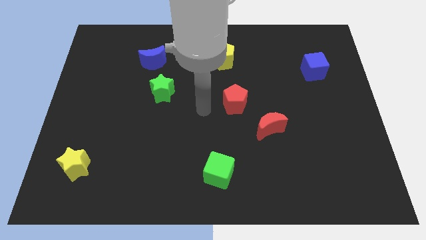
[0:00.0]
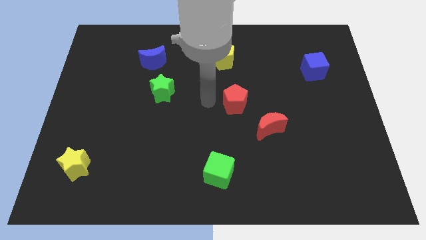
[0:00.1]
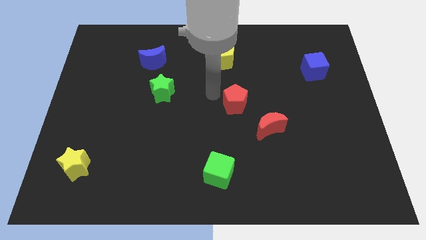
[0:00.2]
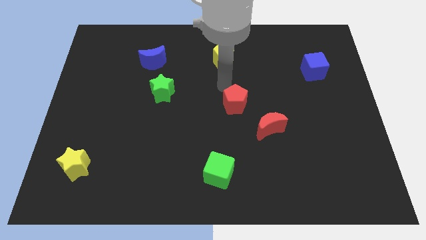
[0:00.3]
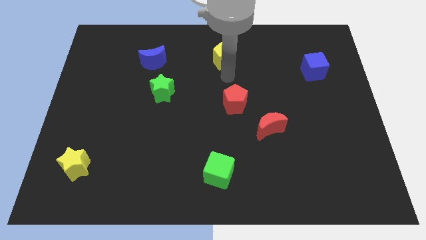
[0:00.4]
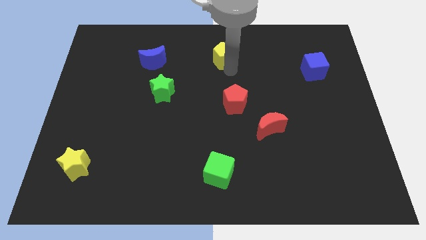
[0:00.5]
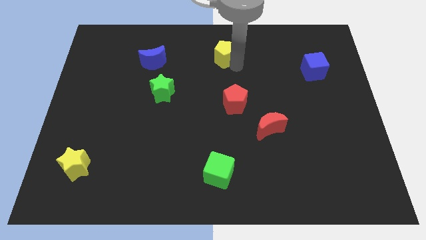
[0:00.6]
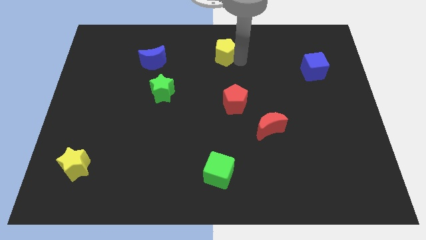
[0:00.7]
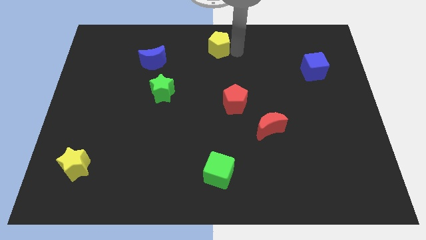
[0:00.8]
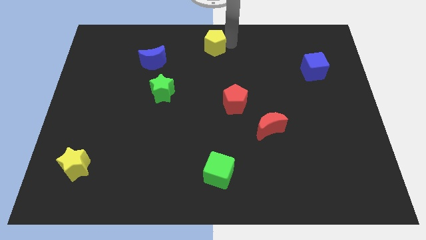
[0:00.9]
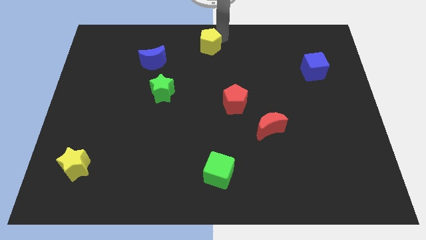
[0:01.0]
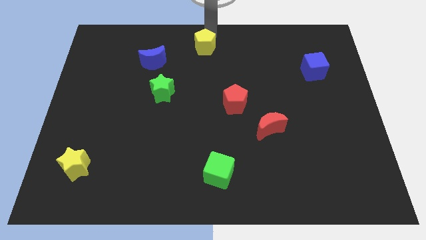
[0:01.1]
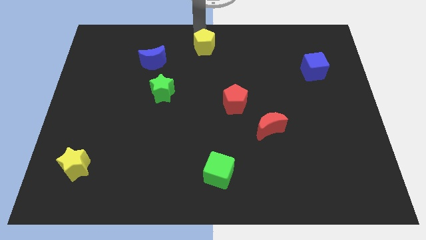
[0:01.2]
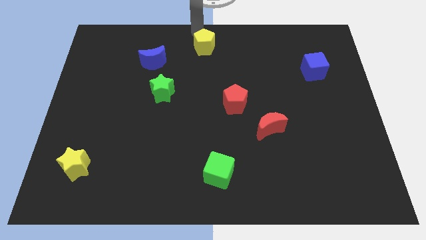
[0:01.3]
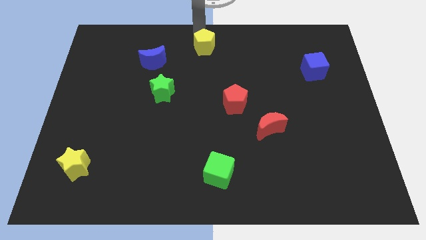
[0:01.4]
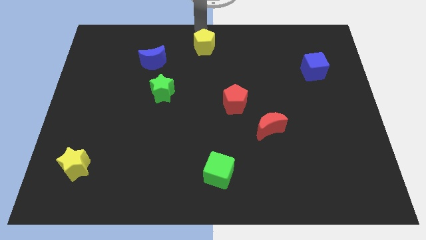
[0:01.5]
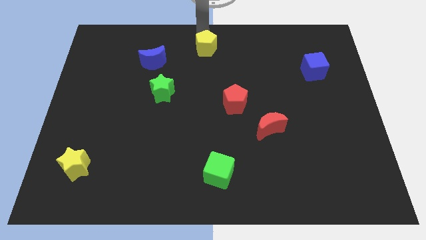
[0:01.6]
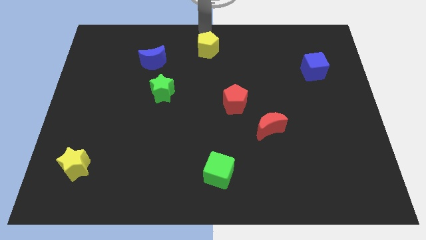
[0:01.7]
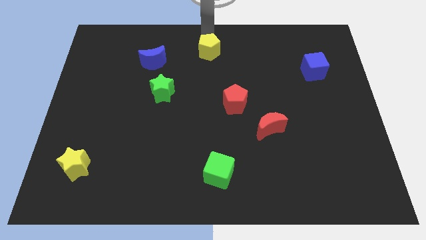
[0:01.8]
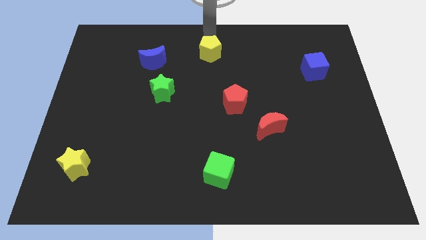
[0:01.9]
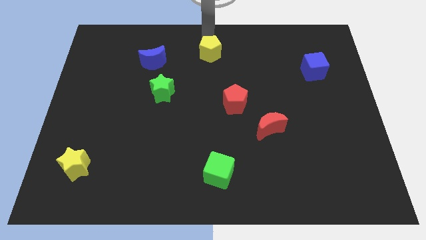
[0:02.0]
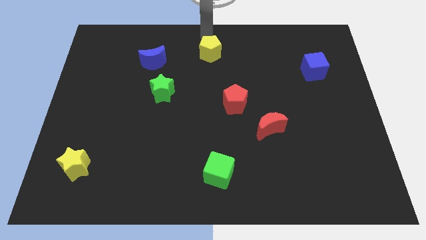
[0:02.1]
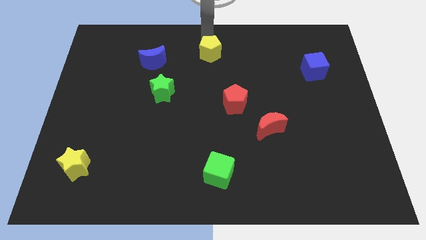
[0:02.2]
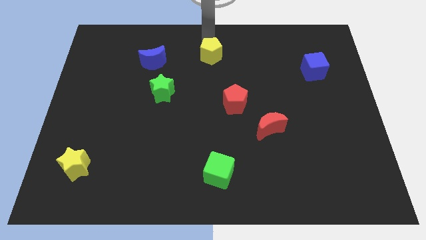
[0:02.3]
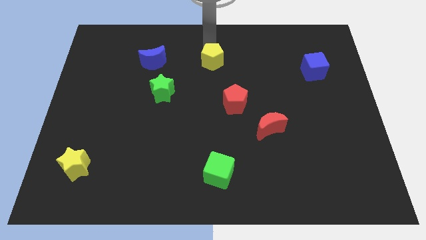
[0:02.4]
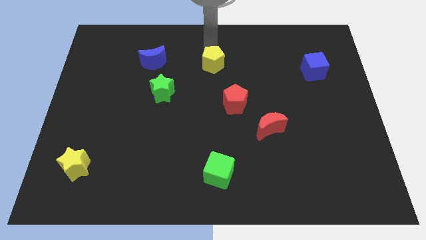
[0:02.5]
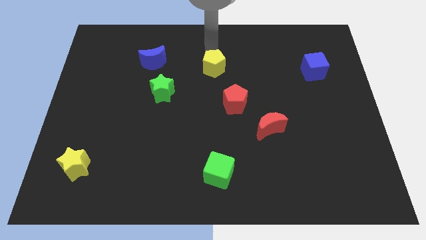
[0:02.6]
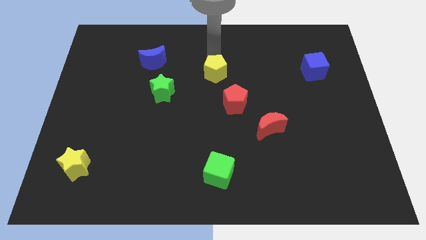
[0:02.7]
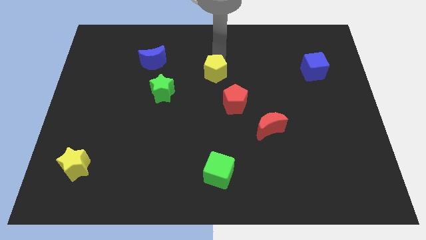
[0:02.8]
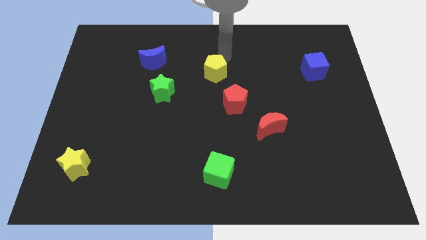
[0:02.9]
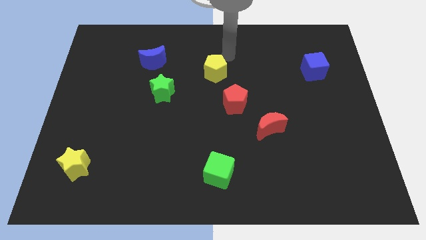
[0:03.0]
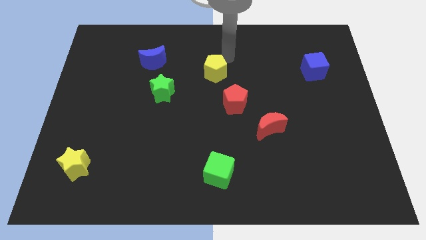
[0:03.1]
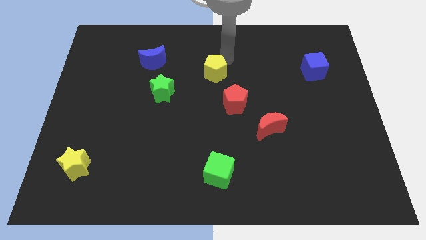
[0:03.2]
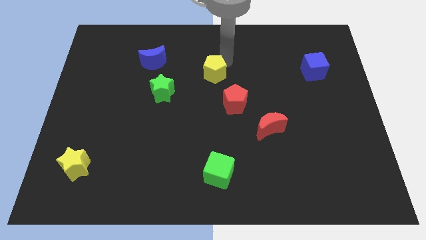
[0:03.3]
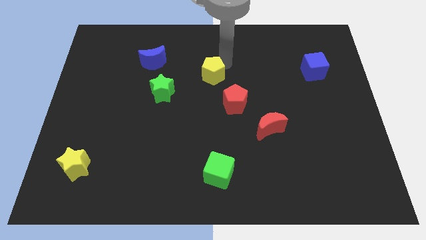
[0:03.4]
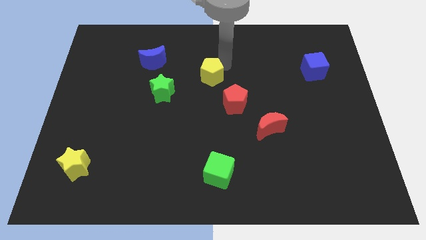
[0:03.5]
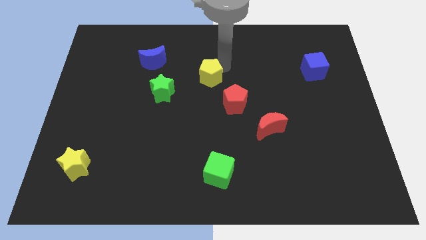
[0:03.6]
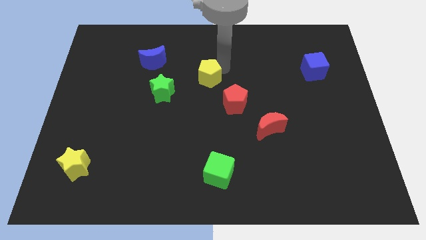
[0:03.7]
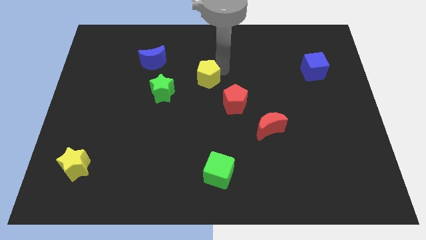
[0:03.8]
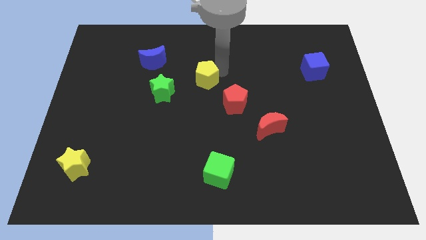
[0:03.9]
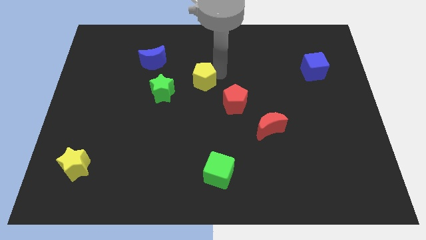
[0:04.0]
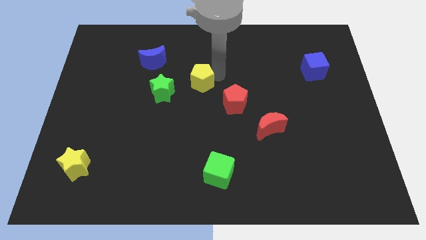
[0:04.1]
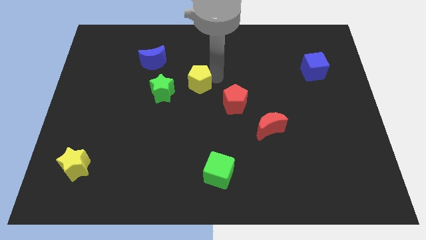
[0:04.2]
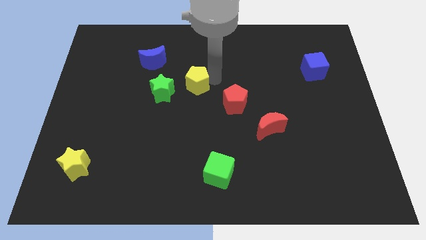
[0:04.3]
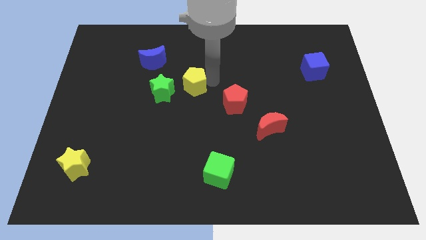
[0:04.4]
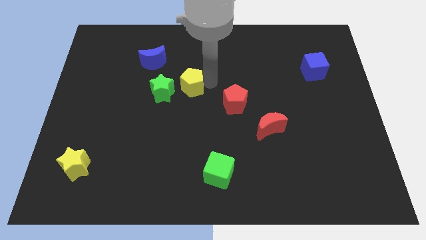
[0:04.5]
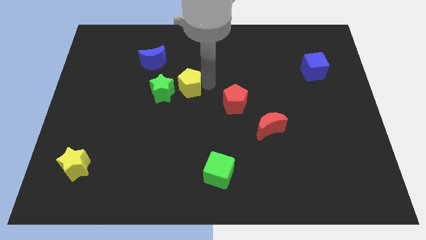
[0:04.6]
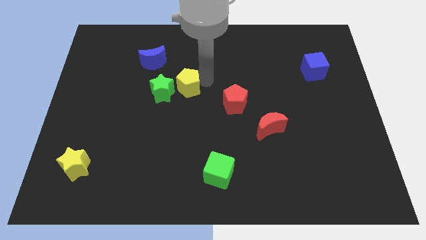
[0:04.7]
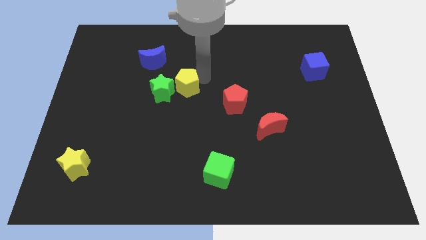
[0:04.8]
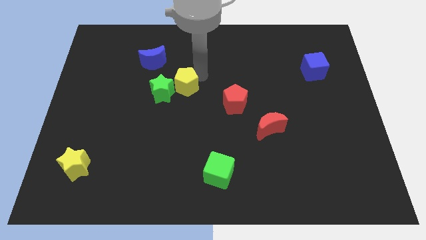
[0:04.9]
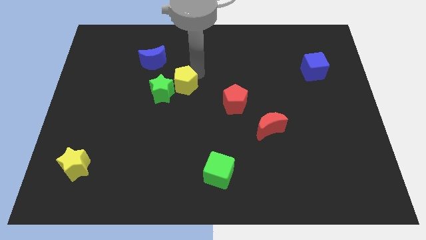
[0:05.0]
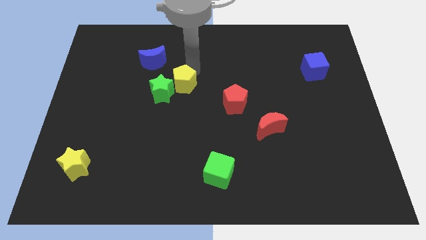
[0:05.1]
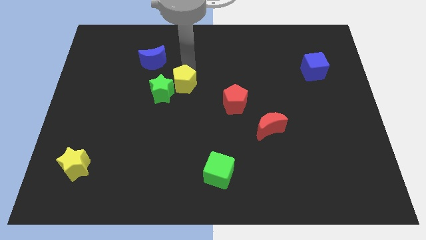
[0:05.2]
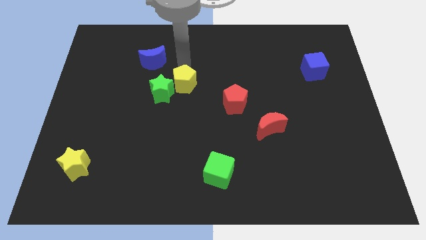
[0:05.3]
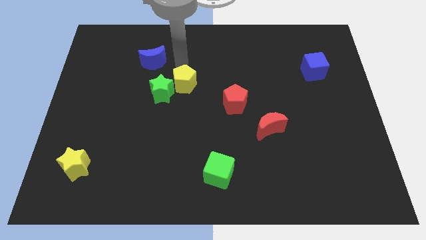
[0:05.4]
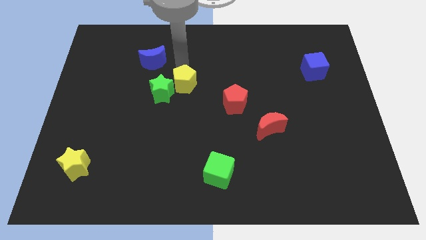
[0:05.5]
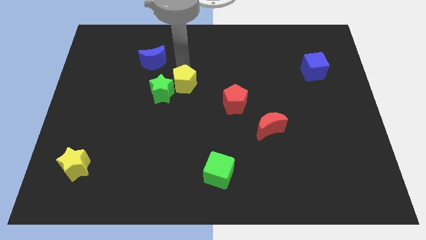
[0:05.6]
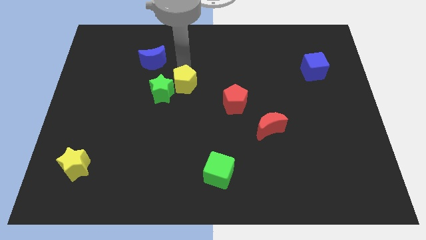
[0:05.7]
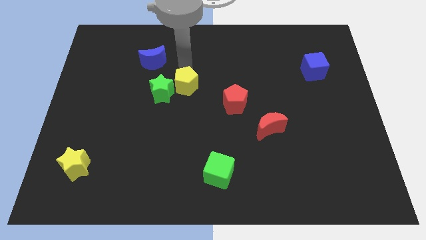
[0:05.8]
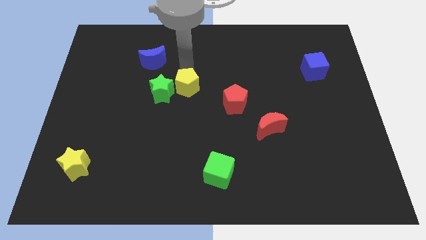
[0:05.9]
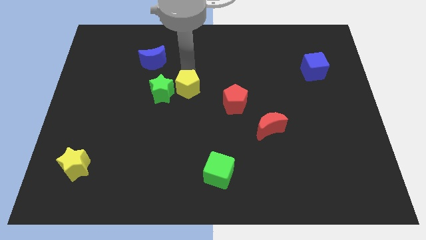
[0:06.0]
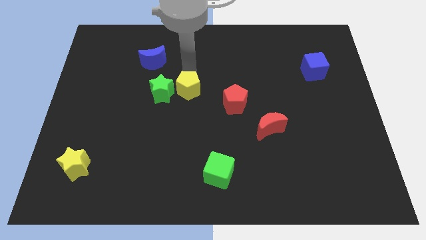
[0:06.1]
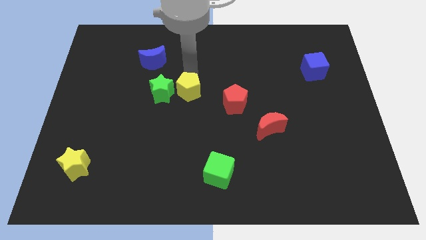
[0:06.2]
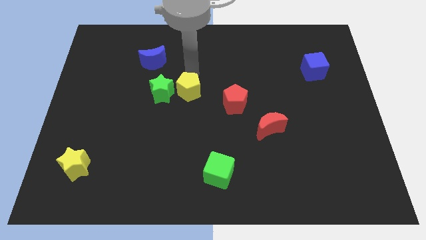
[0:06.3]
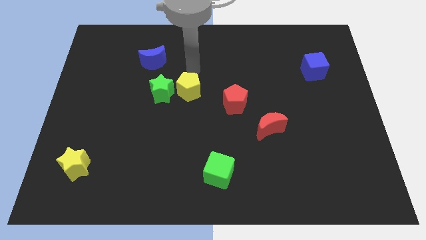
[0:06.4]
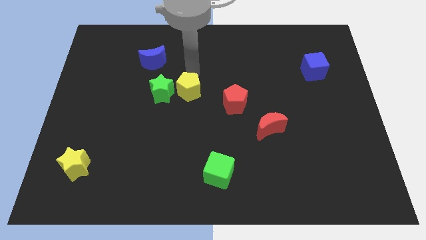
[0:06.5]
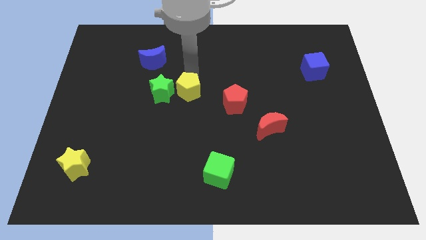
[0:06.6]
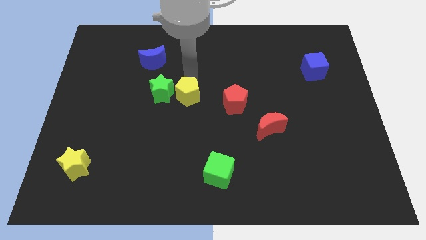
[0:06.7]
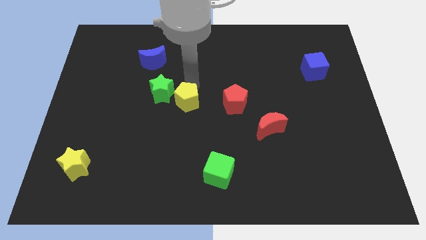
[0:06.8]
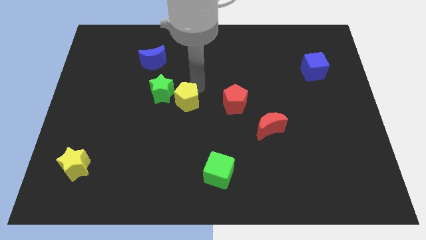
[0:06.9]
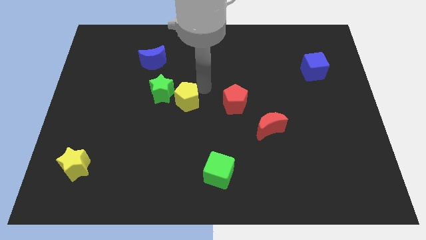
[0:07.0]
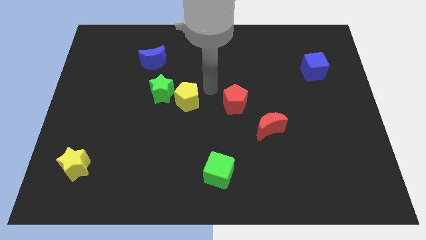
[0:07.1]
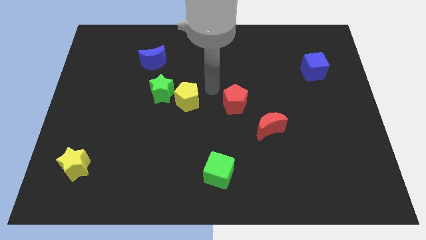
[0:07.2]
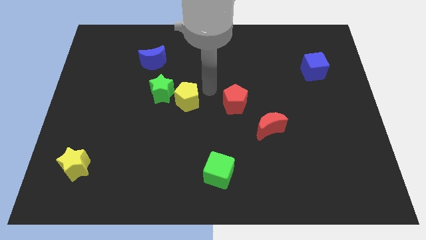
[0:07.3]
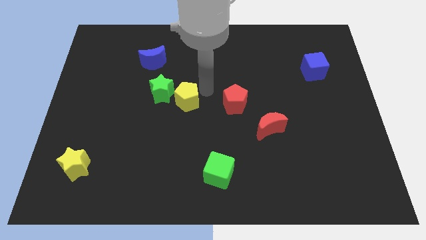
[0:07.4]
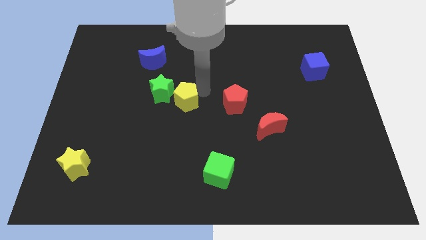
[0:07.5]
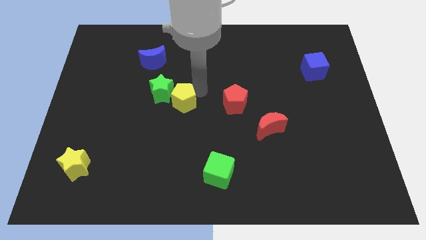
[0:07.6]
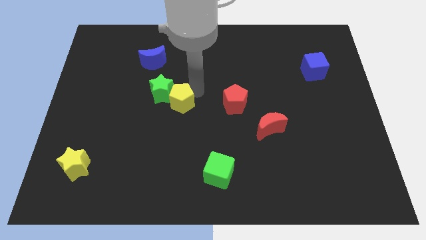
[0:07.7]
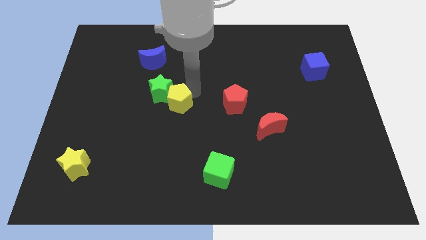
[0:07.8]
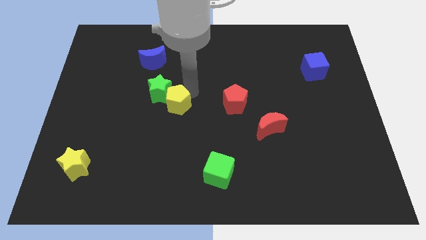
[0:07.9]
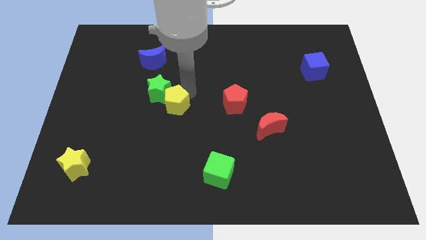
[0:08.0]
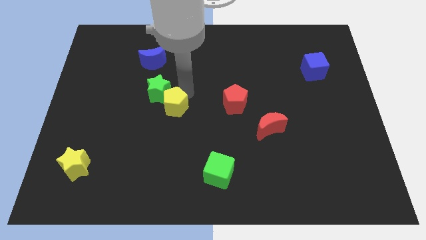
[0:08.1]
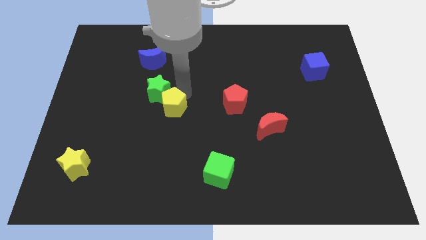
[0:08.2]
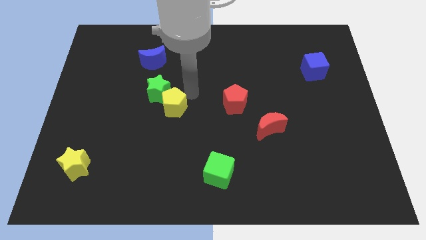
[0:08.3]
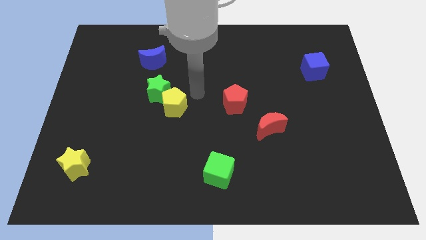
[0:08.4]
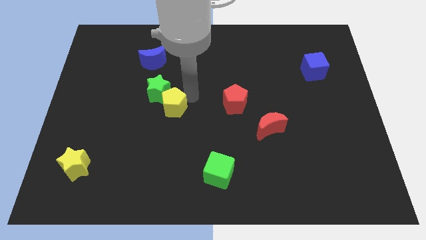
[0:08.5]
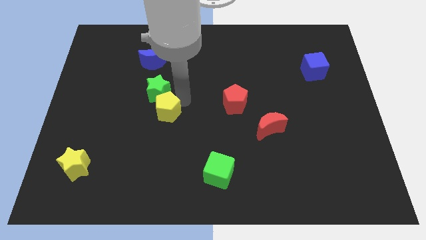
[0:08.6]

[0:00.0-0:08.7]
slide the yellow pentagon downwards and then left
